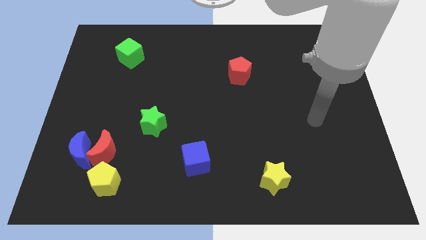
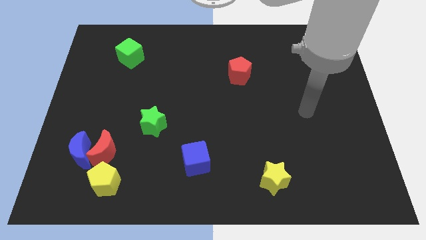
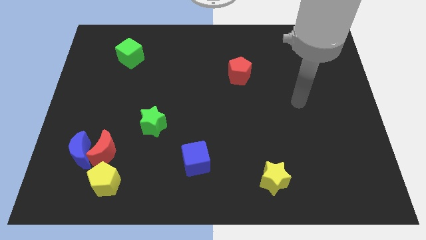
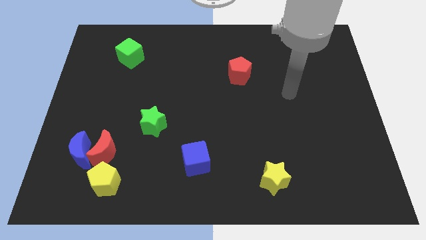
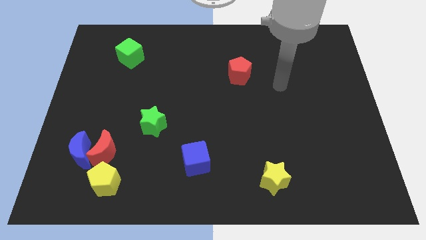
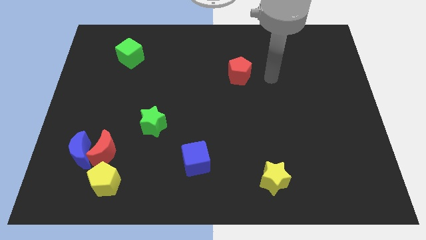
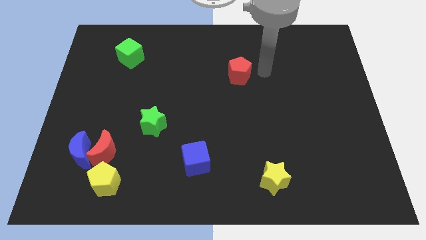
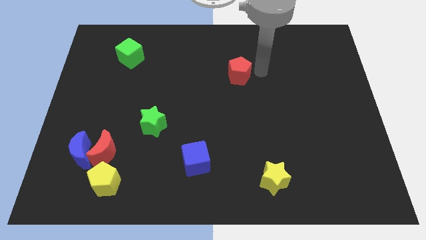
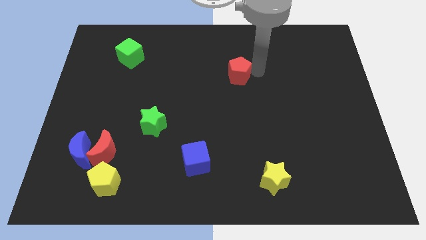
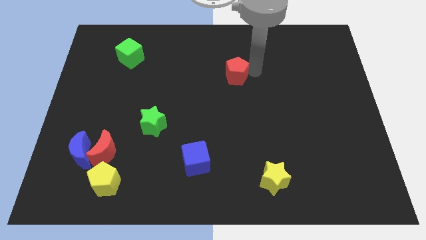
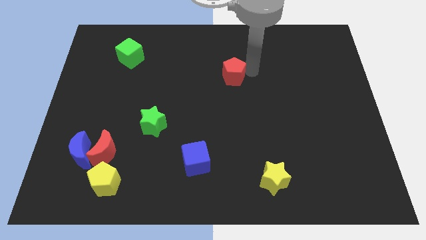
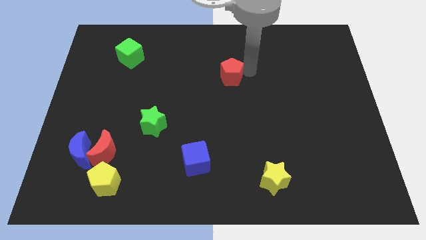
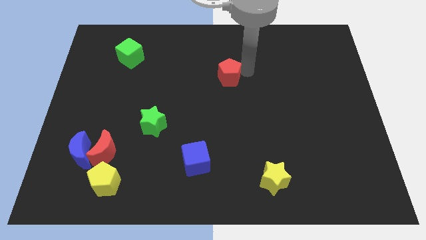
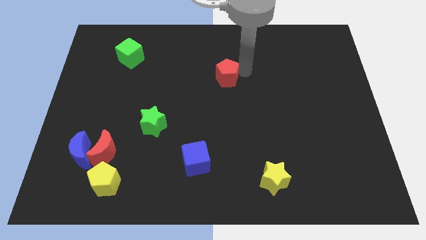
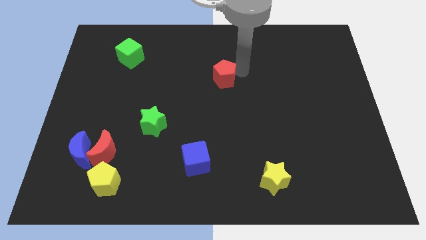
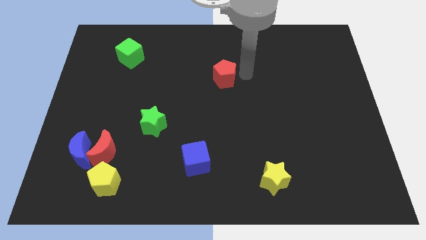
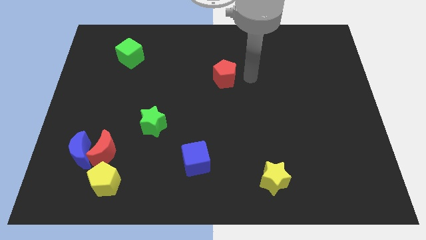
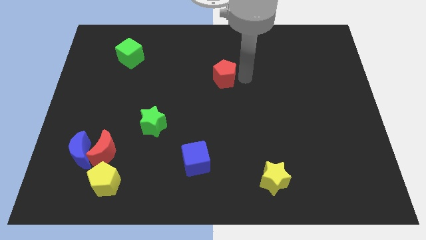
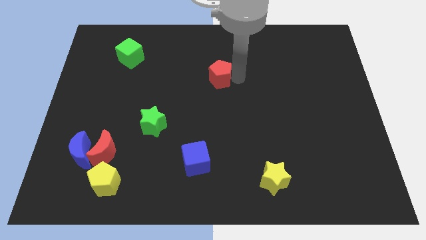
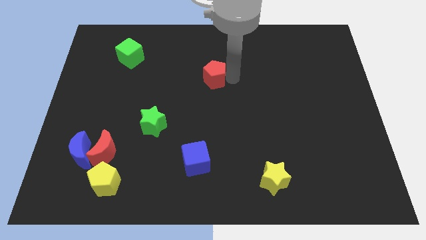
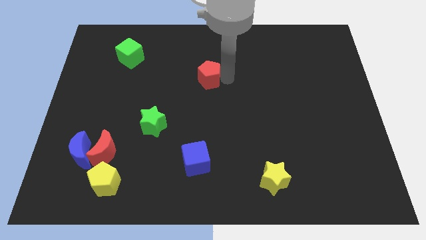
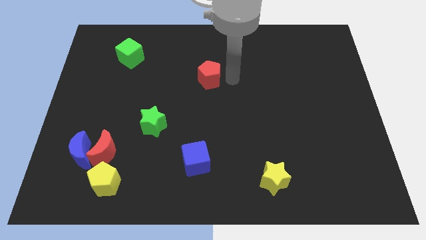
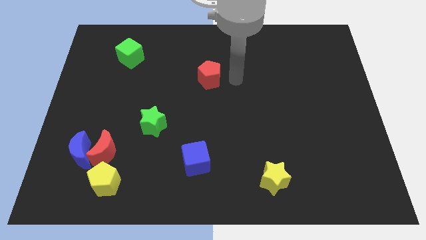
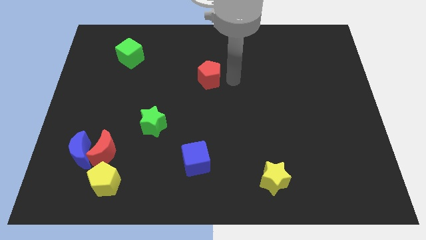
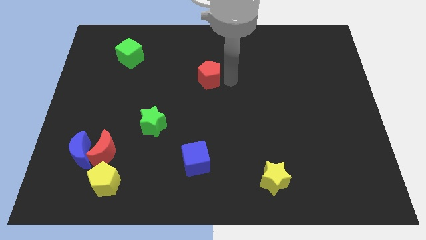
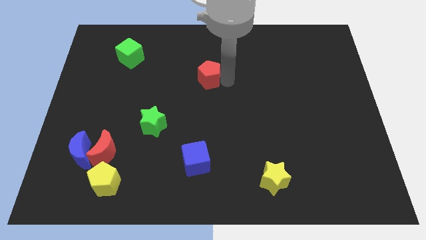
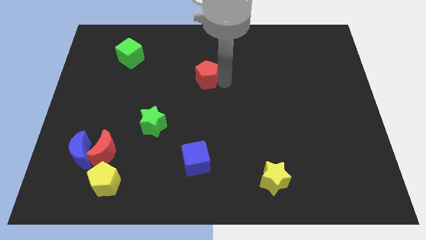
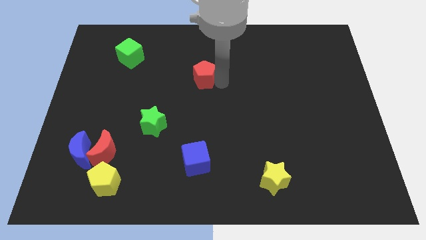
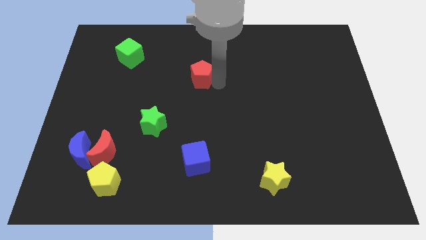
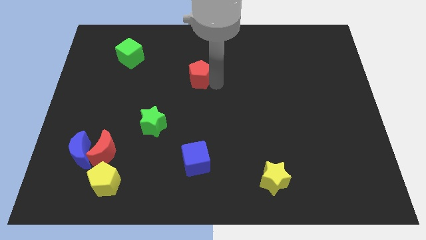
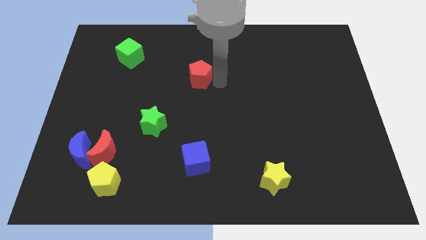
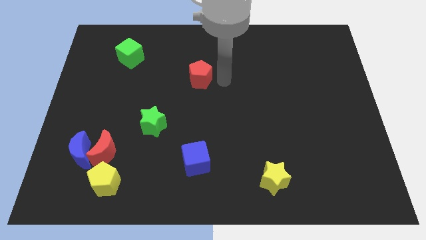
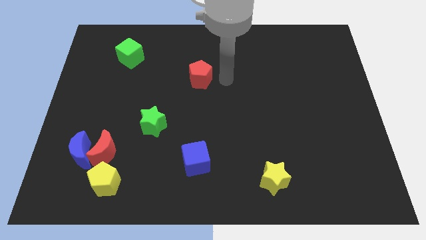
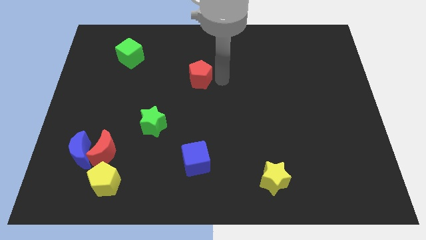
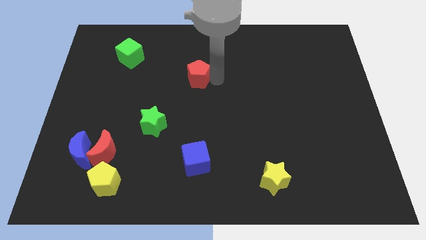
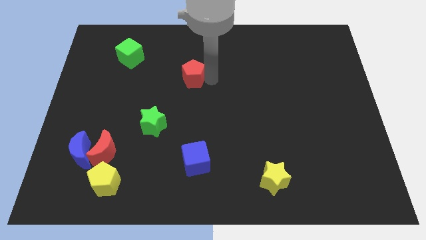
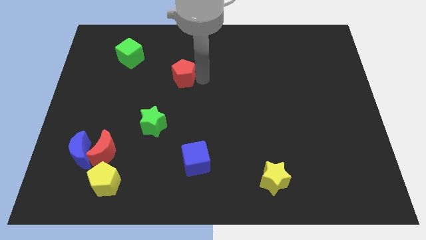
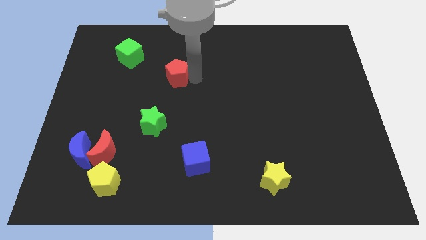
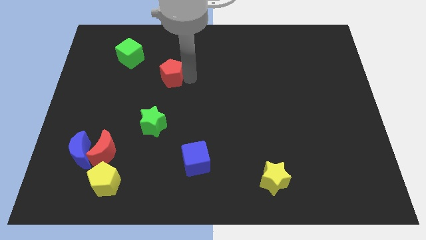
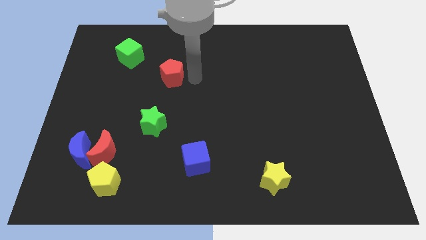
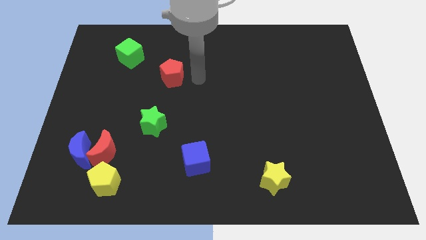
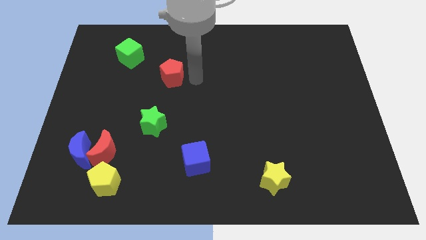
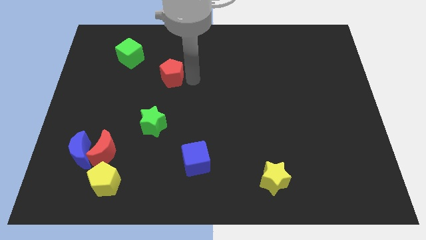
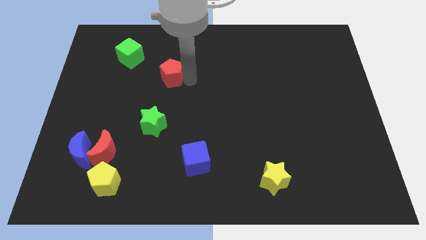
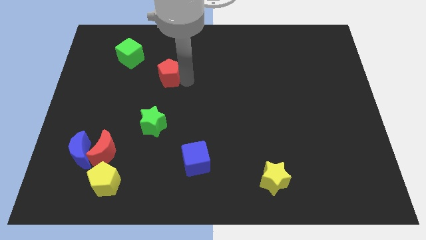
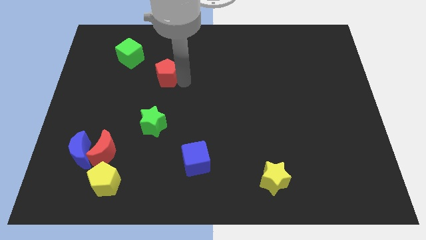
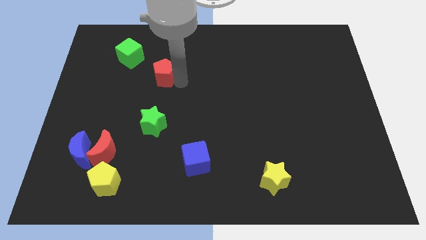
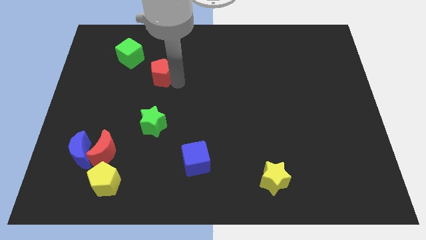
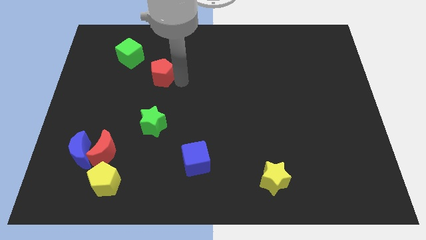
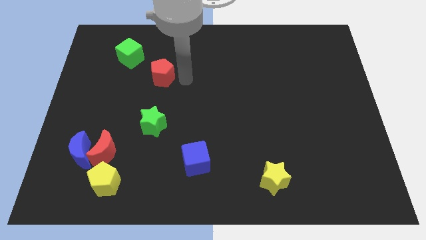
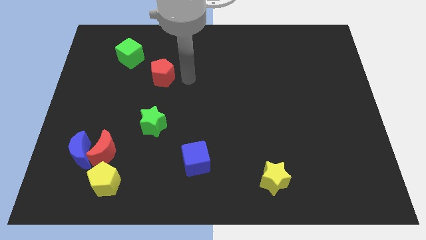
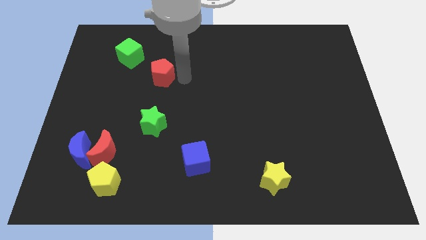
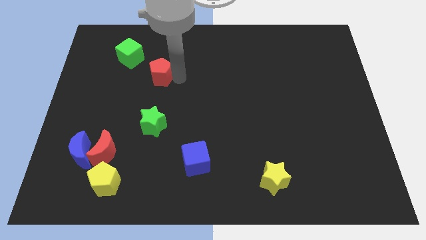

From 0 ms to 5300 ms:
slide the red pentagon to the left

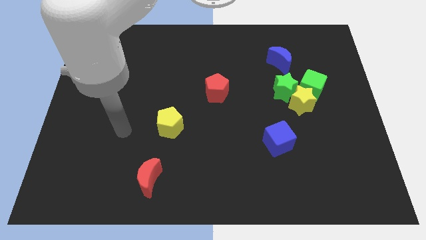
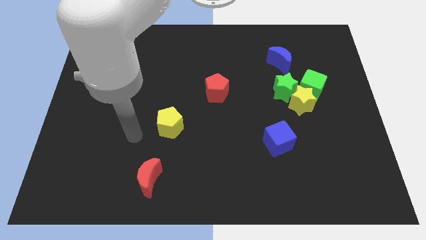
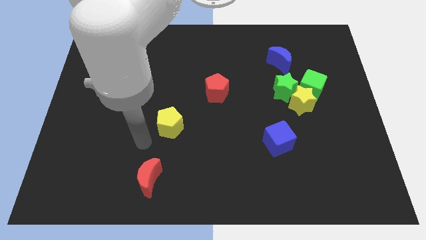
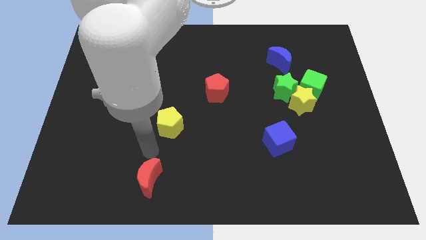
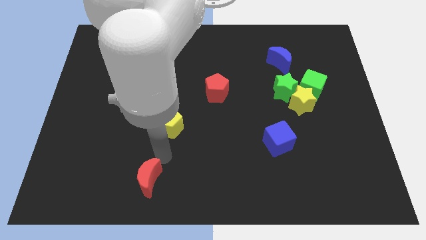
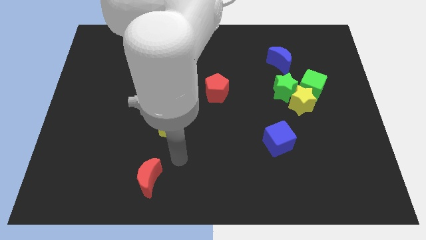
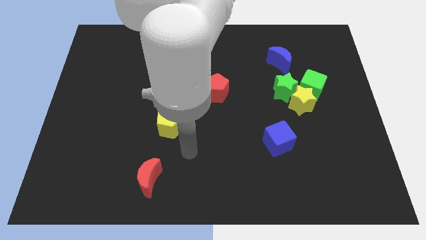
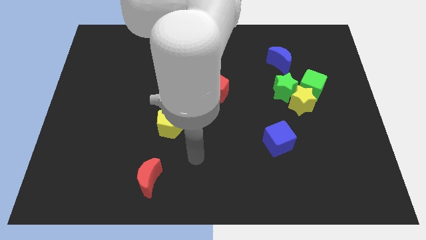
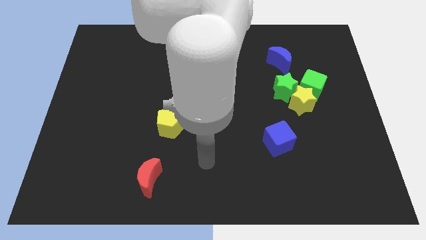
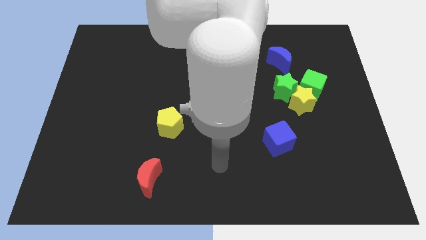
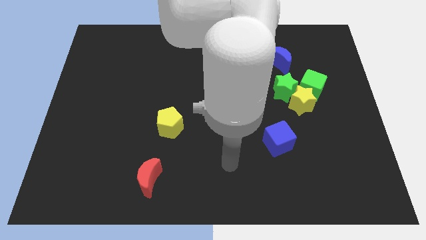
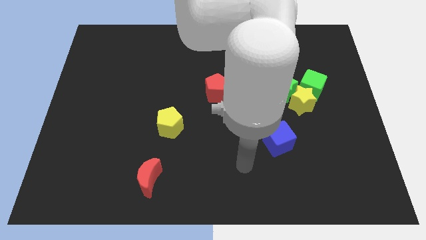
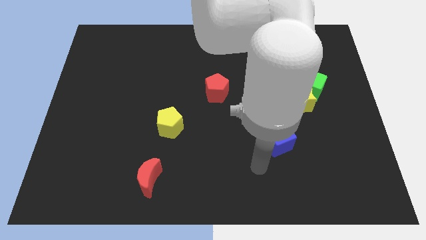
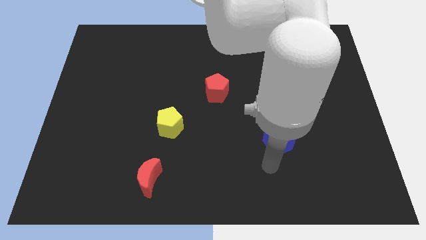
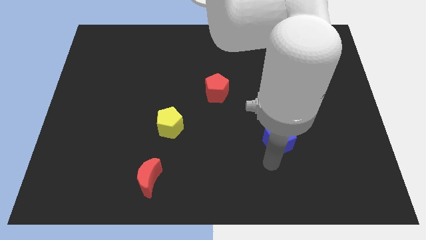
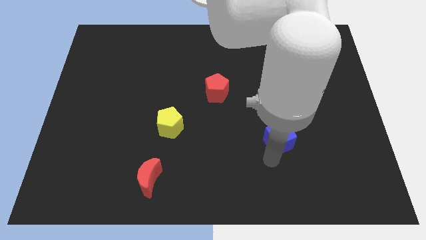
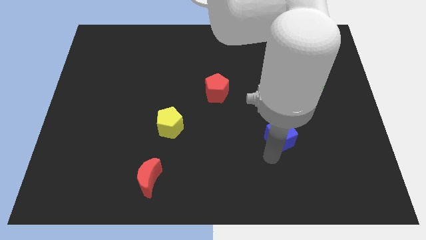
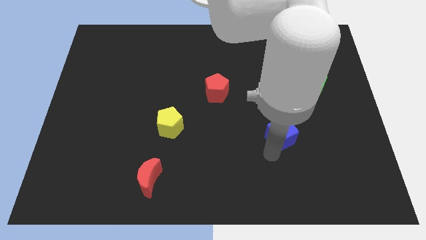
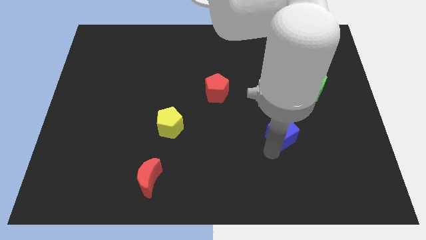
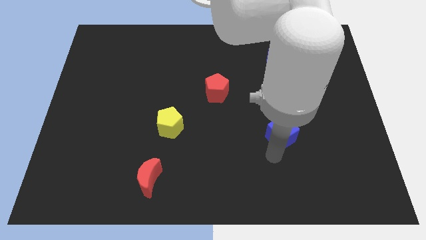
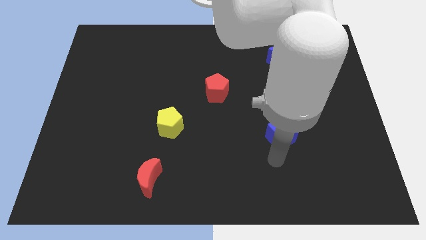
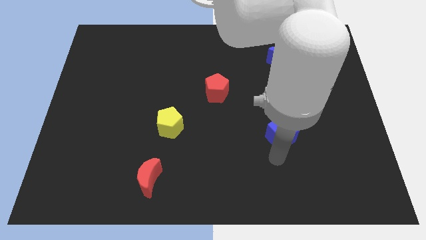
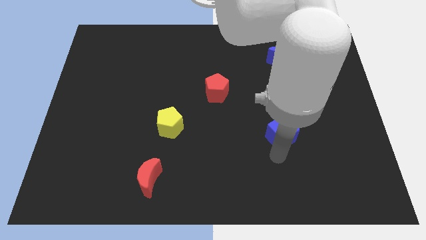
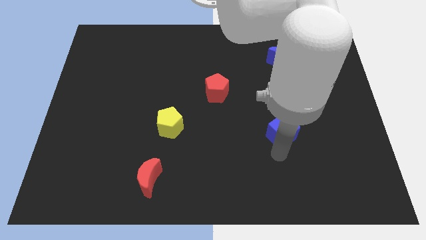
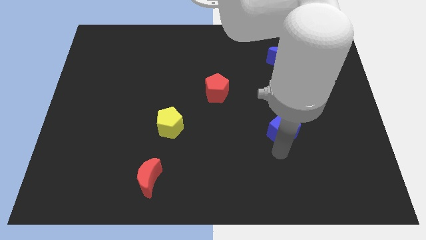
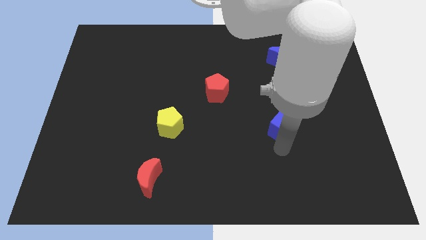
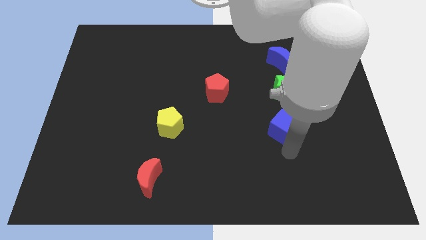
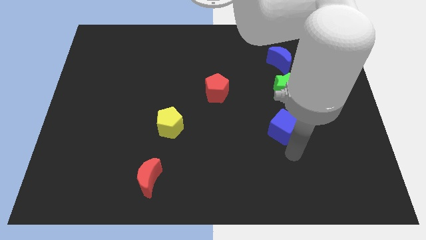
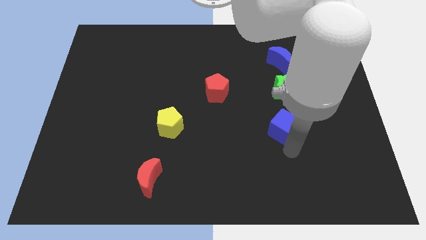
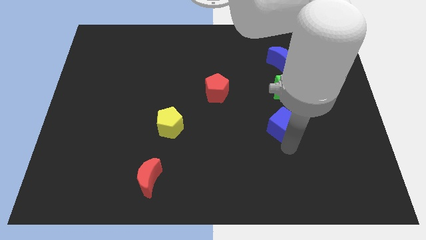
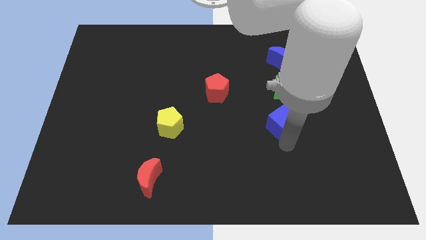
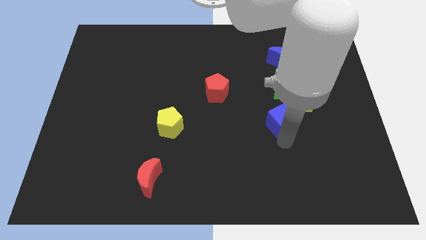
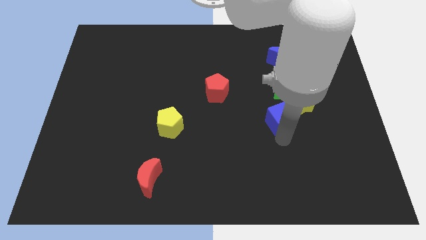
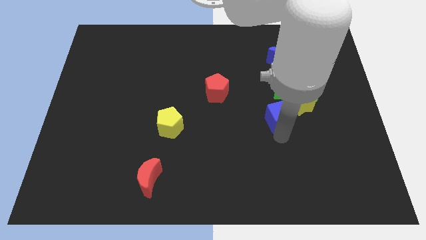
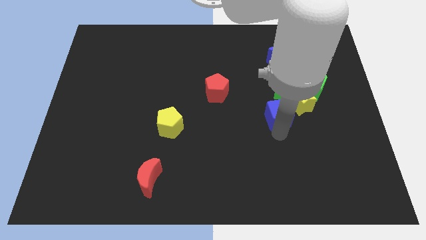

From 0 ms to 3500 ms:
move the blue cube upwards a little
